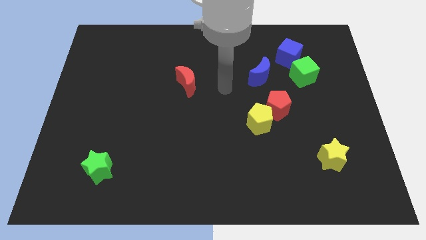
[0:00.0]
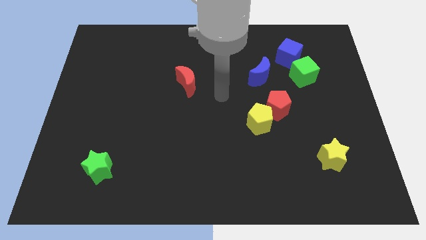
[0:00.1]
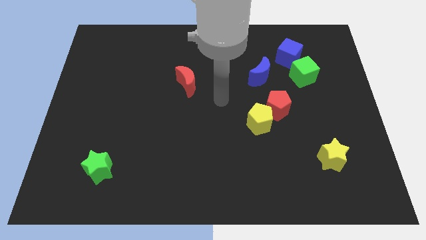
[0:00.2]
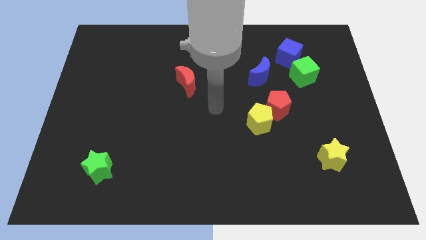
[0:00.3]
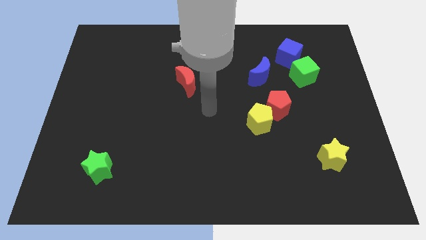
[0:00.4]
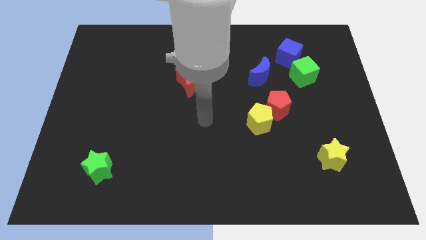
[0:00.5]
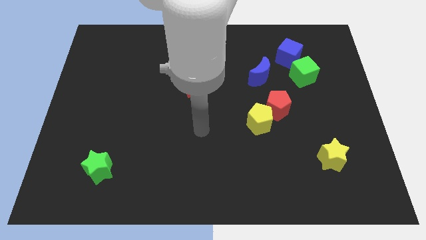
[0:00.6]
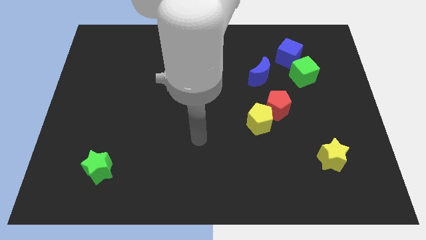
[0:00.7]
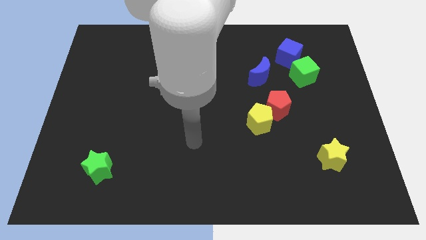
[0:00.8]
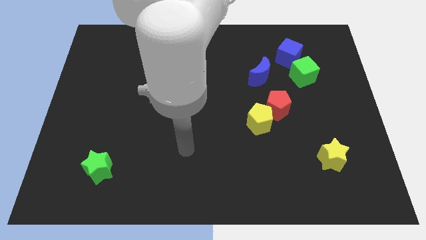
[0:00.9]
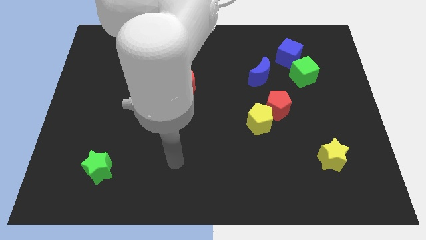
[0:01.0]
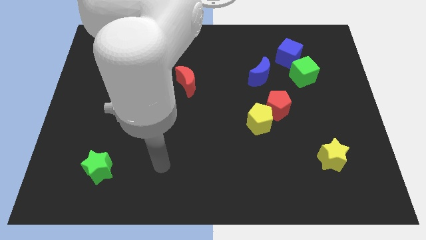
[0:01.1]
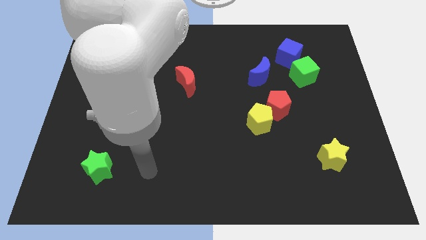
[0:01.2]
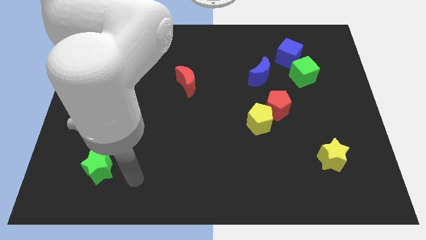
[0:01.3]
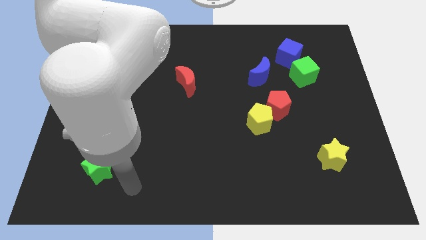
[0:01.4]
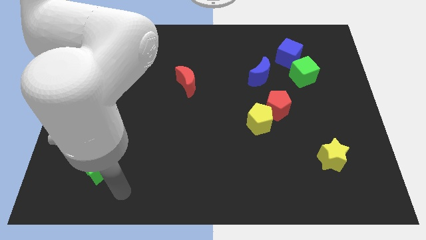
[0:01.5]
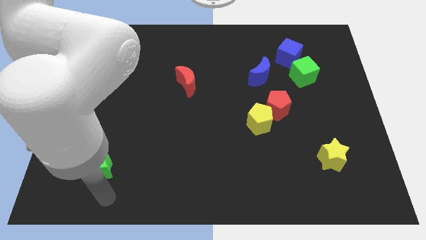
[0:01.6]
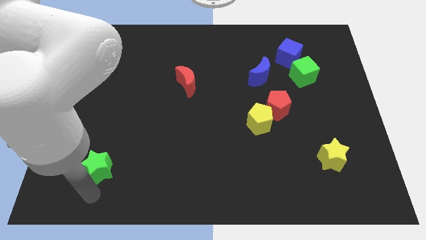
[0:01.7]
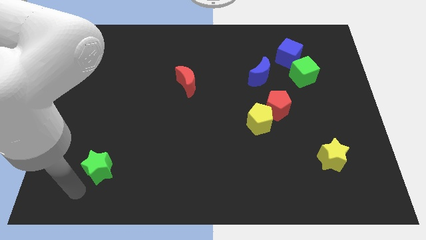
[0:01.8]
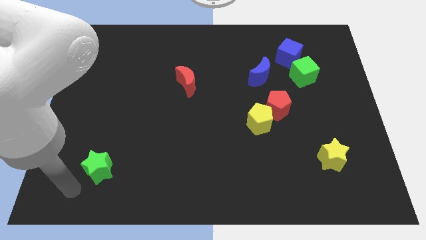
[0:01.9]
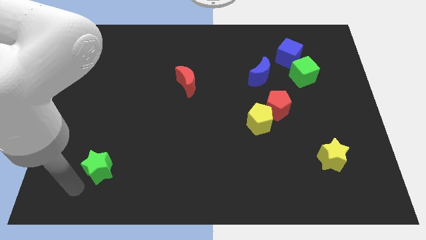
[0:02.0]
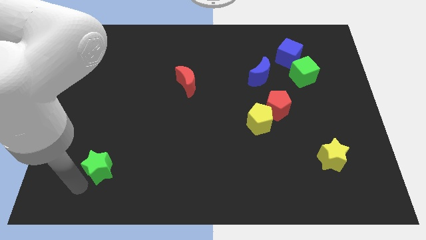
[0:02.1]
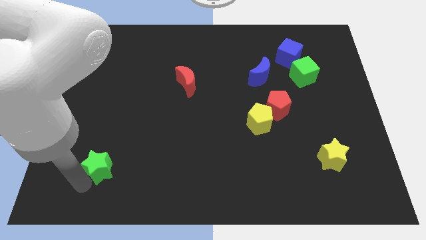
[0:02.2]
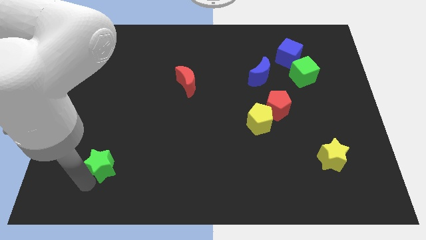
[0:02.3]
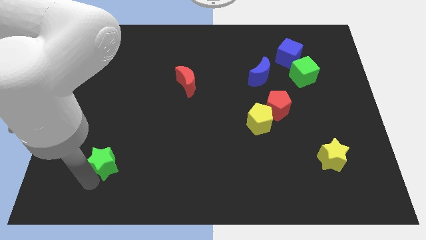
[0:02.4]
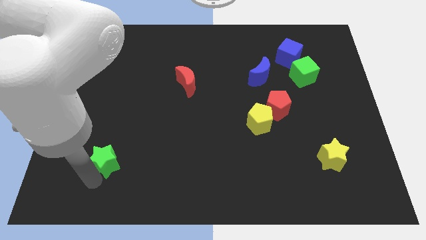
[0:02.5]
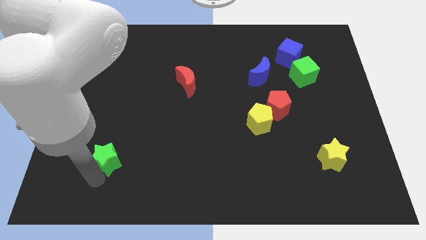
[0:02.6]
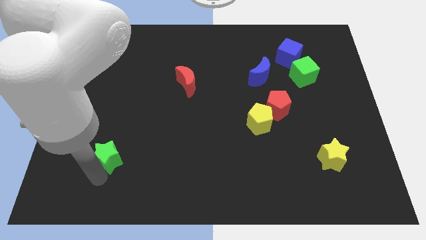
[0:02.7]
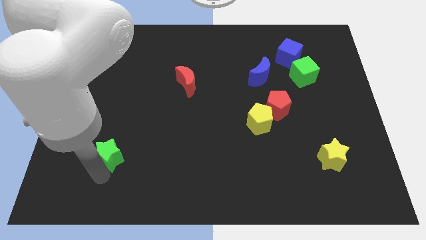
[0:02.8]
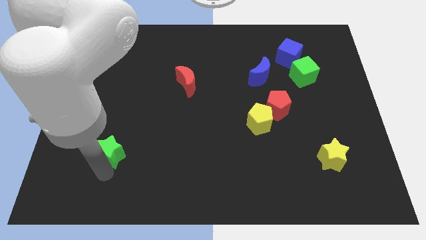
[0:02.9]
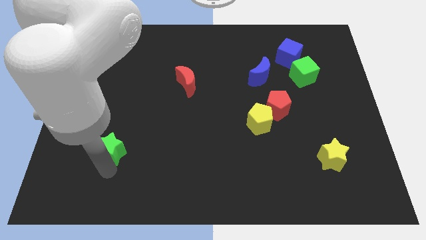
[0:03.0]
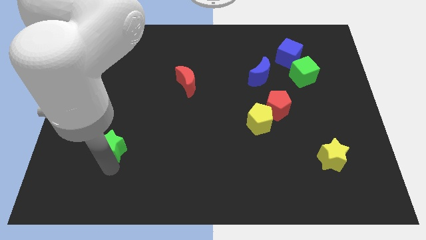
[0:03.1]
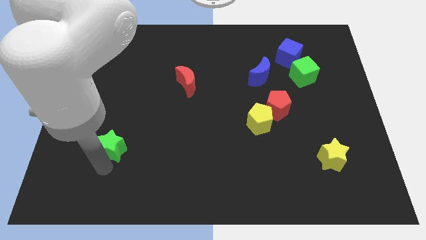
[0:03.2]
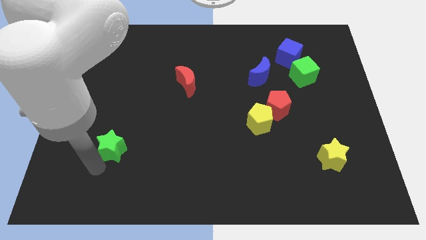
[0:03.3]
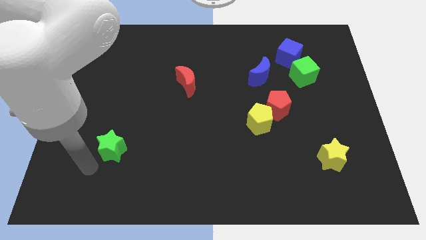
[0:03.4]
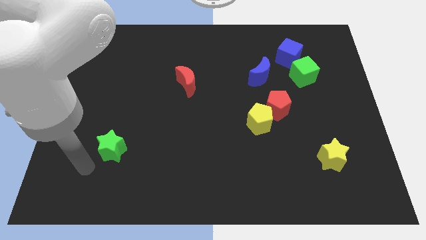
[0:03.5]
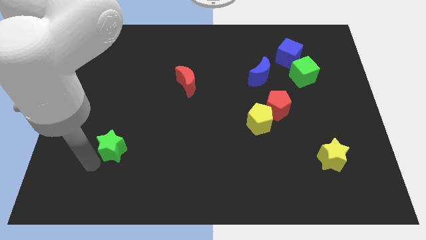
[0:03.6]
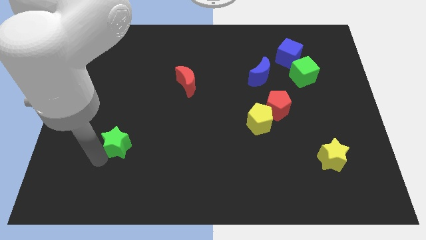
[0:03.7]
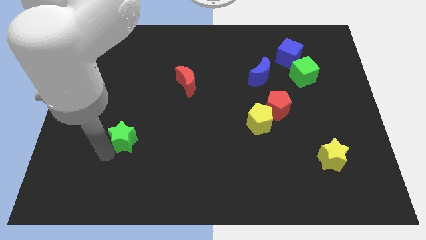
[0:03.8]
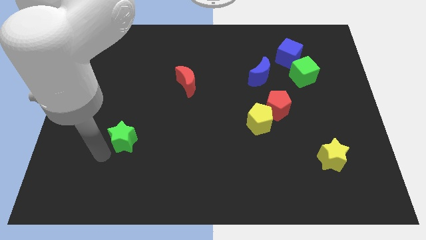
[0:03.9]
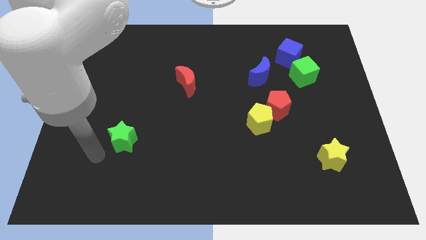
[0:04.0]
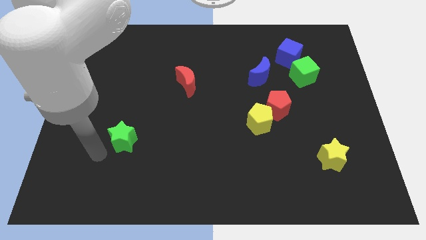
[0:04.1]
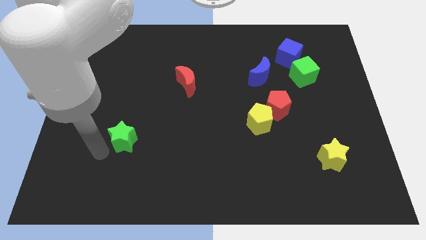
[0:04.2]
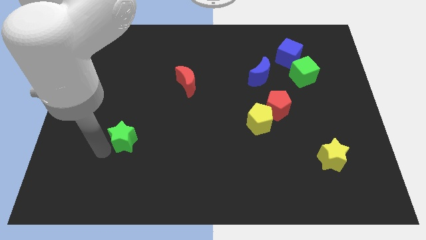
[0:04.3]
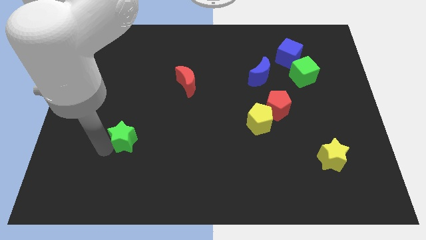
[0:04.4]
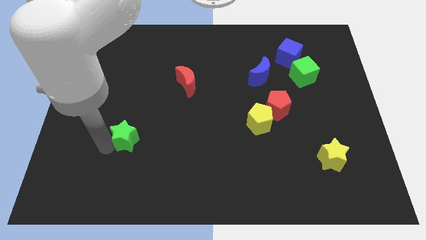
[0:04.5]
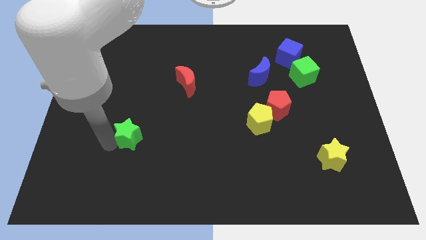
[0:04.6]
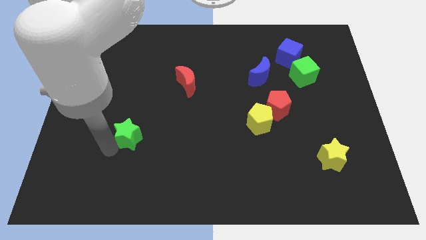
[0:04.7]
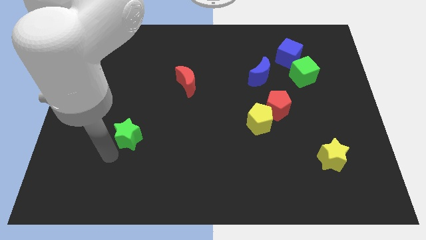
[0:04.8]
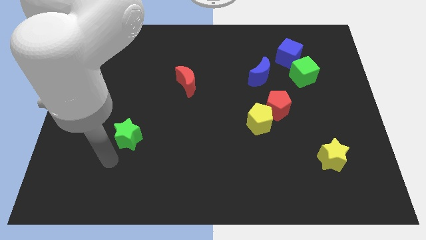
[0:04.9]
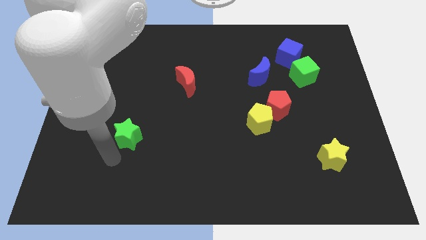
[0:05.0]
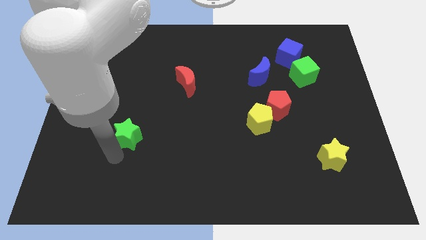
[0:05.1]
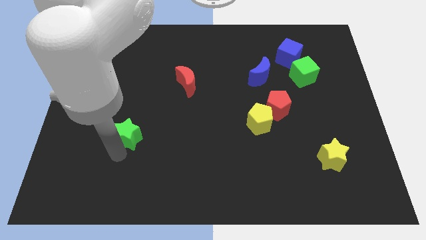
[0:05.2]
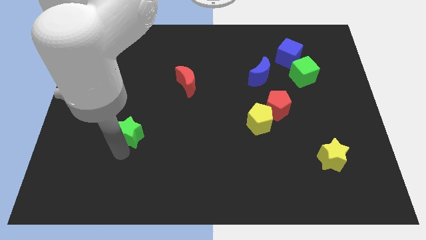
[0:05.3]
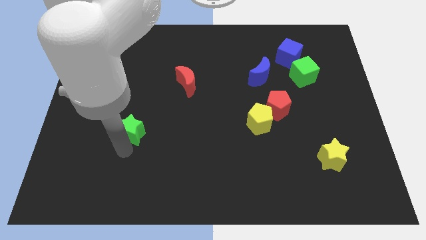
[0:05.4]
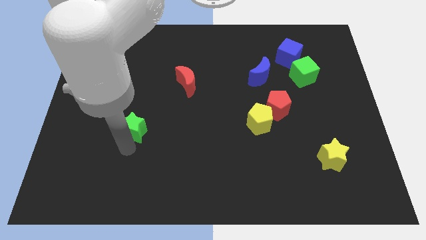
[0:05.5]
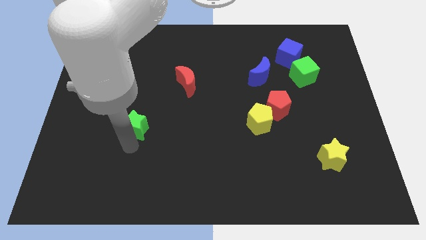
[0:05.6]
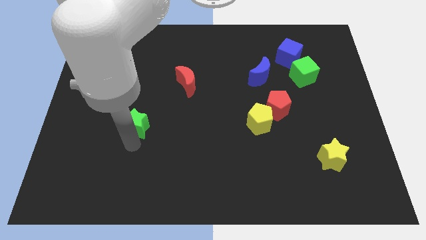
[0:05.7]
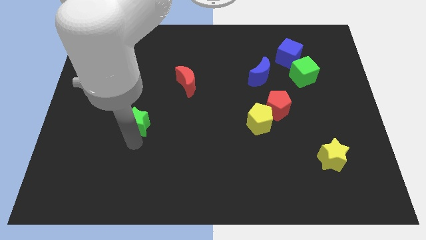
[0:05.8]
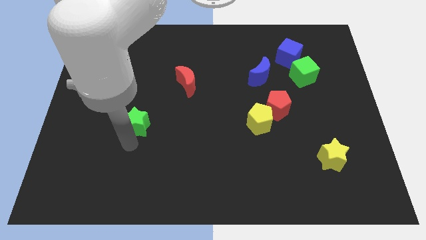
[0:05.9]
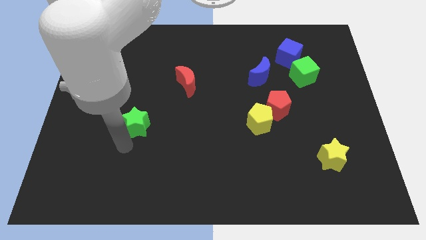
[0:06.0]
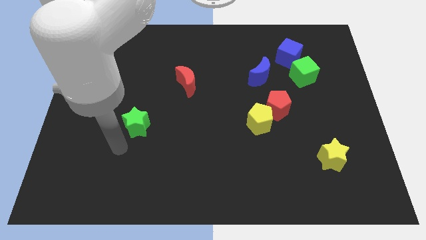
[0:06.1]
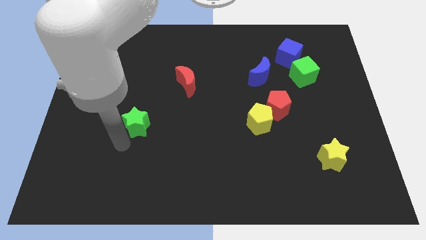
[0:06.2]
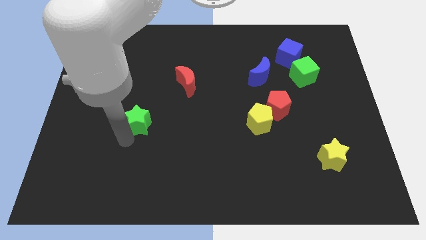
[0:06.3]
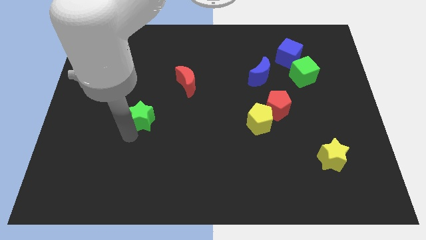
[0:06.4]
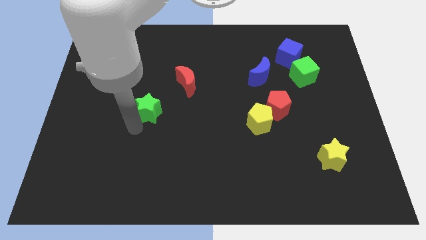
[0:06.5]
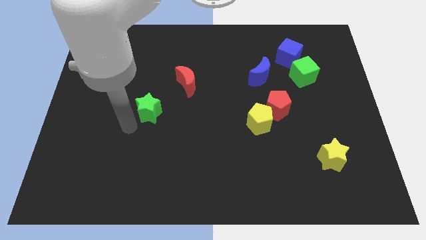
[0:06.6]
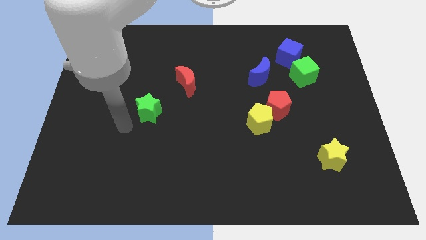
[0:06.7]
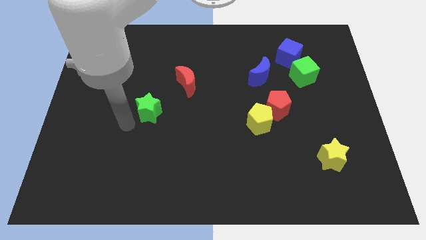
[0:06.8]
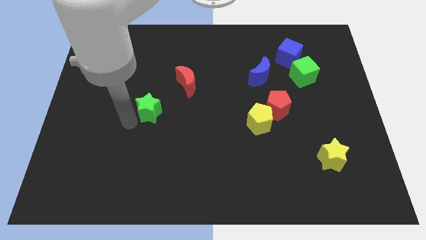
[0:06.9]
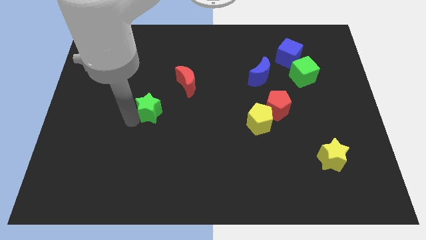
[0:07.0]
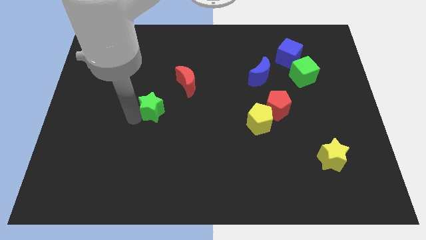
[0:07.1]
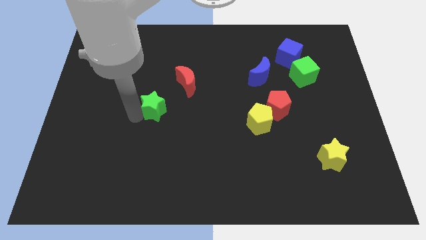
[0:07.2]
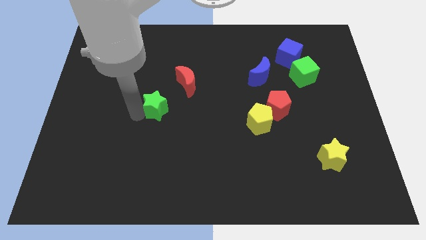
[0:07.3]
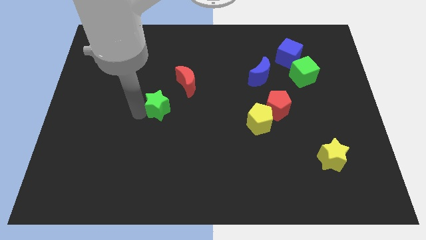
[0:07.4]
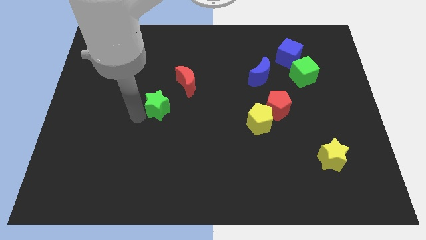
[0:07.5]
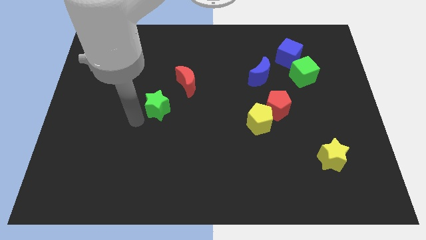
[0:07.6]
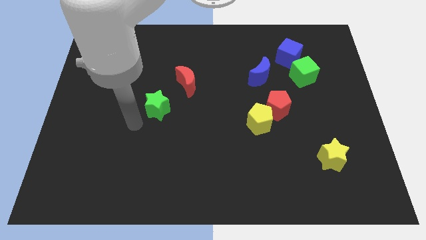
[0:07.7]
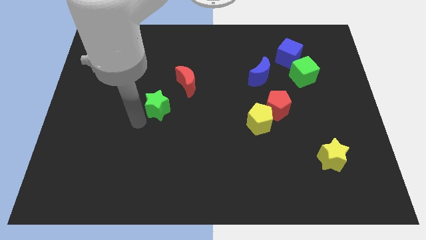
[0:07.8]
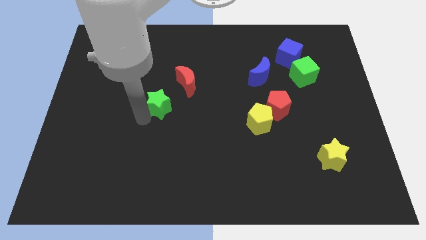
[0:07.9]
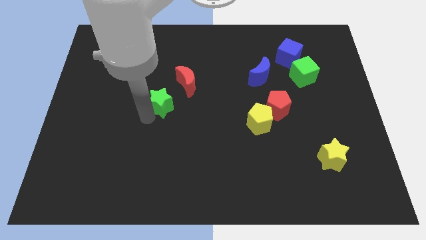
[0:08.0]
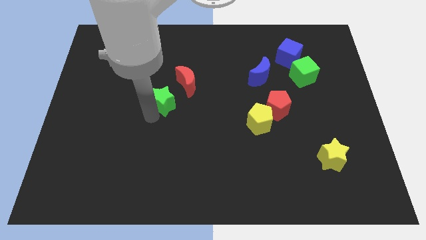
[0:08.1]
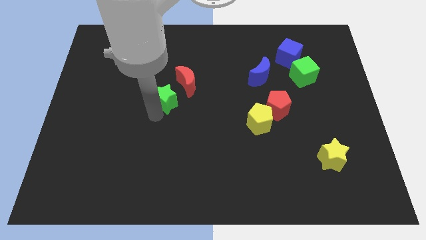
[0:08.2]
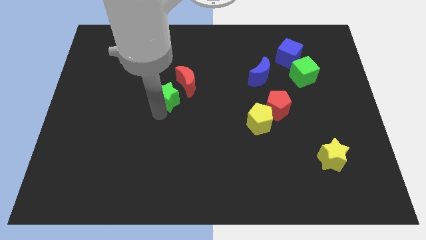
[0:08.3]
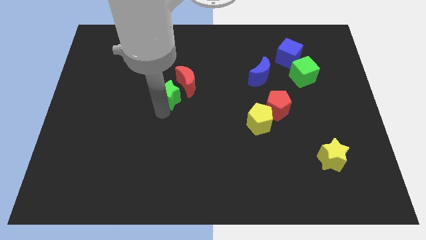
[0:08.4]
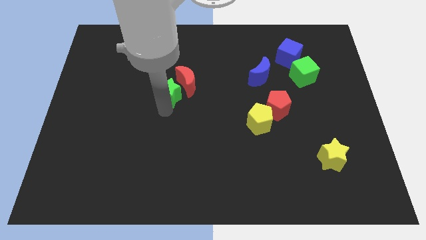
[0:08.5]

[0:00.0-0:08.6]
put the green star towards the red moon
